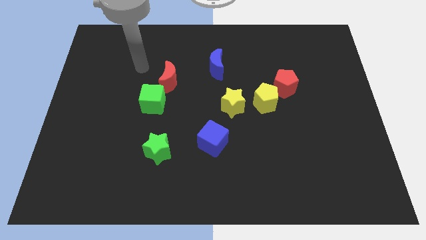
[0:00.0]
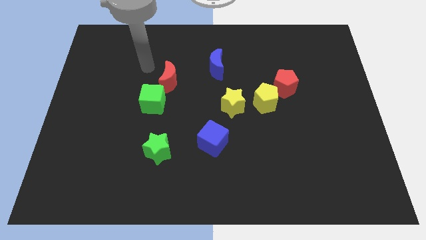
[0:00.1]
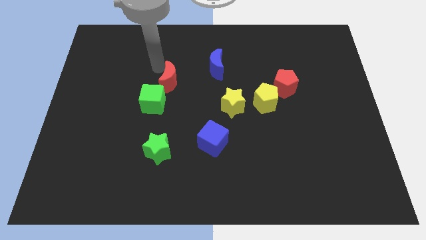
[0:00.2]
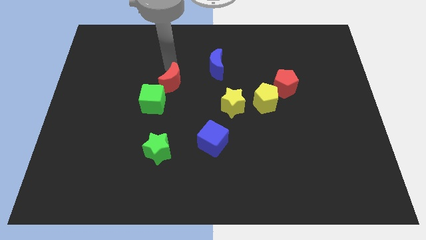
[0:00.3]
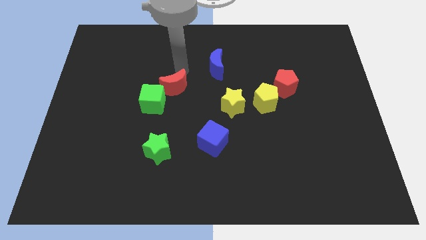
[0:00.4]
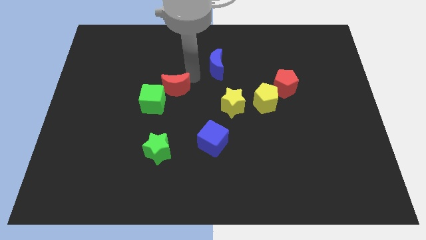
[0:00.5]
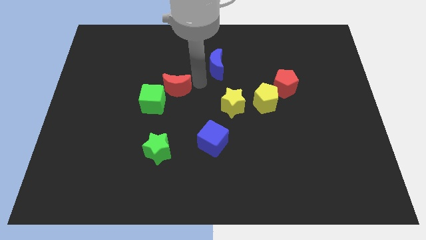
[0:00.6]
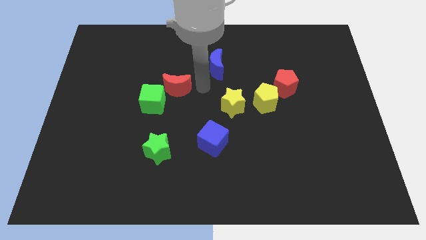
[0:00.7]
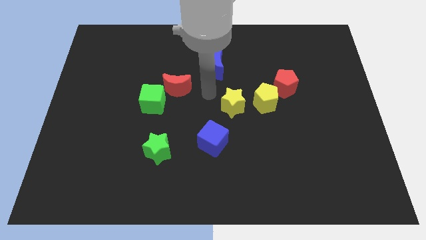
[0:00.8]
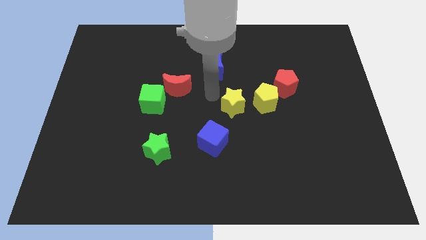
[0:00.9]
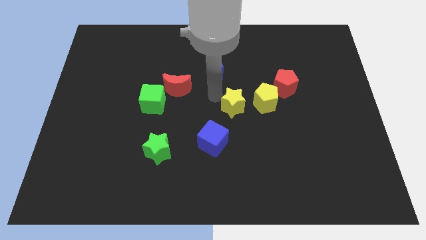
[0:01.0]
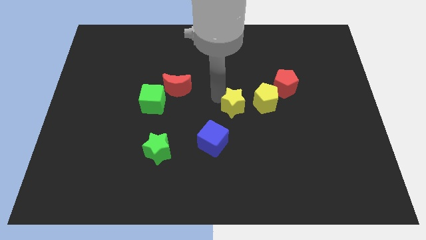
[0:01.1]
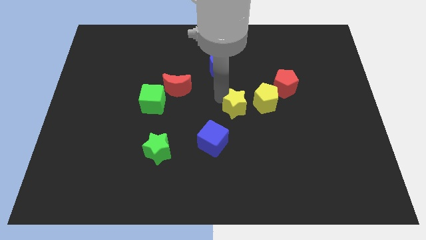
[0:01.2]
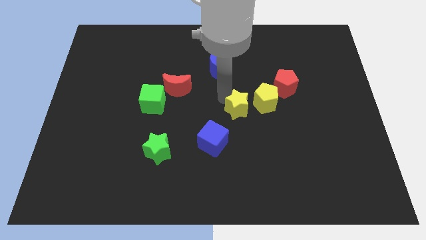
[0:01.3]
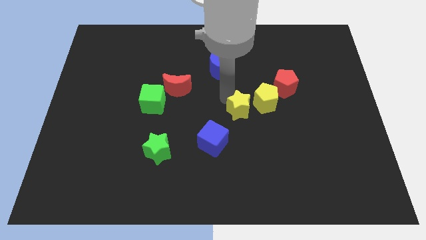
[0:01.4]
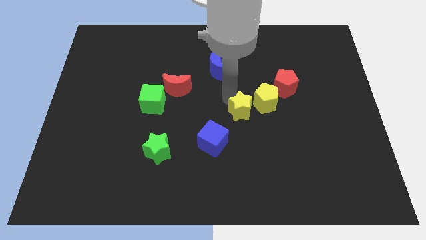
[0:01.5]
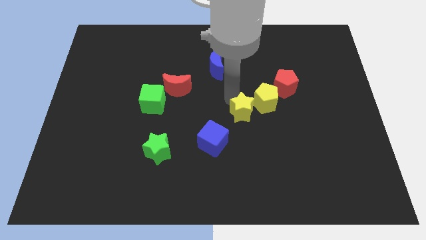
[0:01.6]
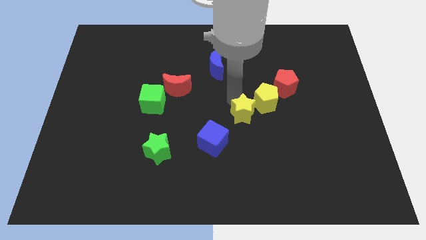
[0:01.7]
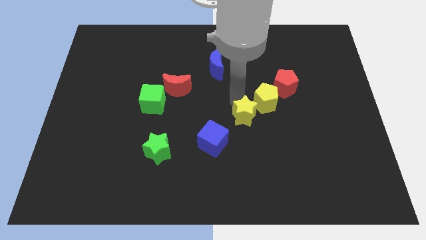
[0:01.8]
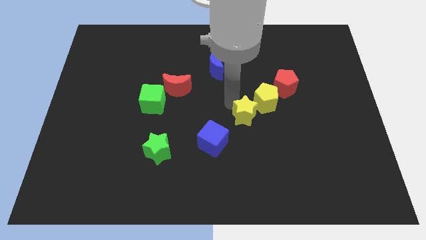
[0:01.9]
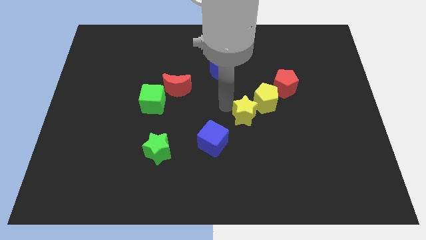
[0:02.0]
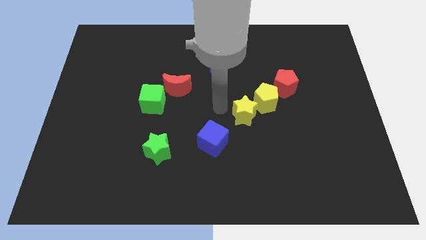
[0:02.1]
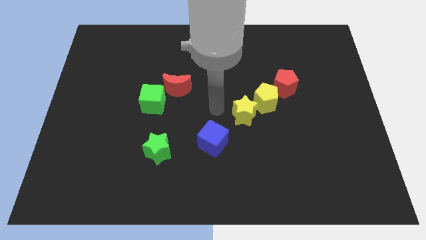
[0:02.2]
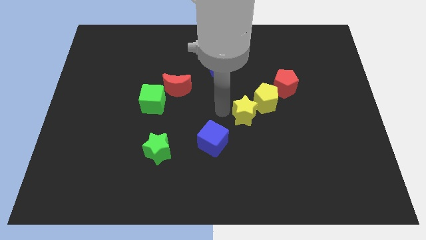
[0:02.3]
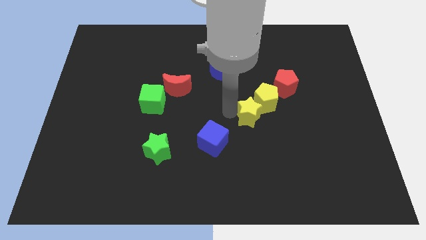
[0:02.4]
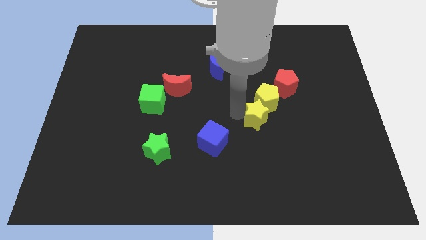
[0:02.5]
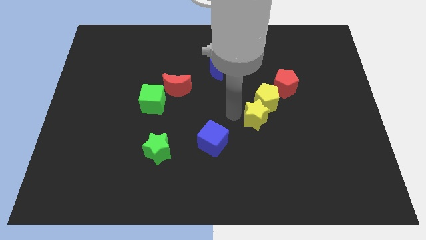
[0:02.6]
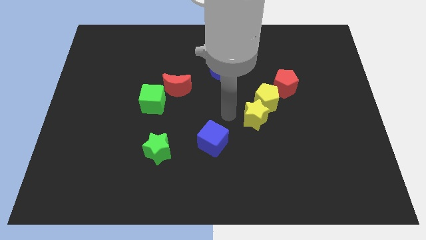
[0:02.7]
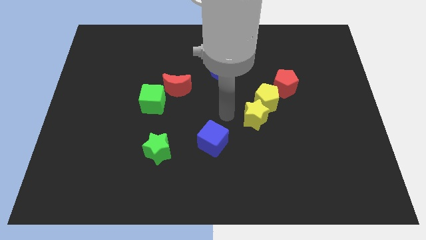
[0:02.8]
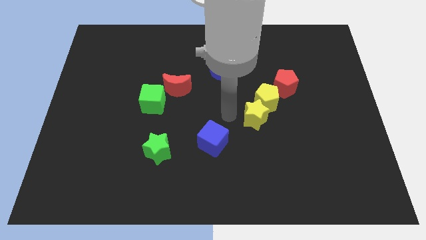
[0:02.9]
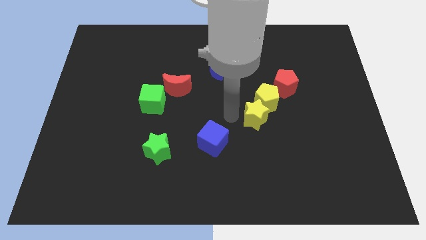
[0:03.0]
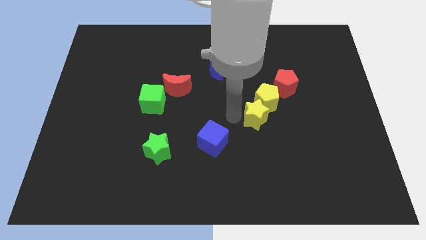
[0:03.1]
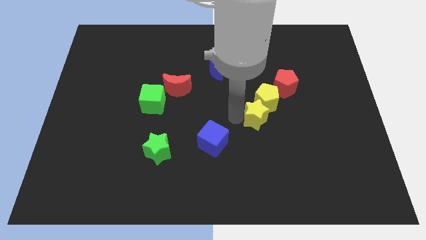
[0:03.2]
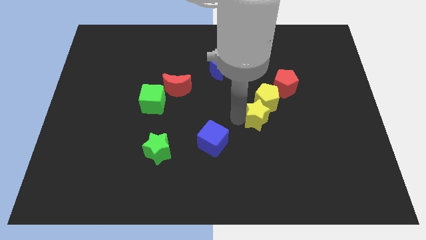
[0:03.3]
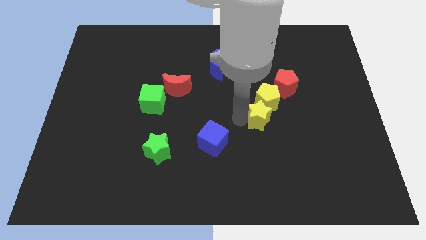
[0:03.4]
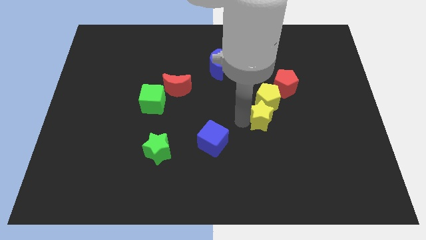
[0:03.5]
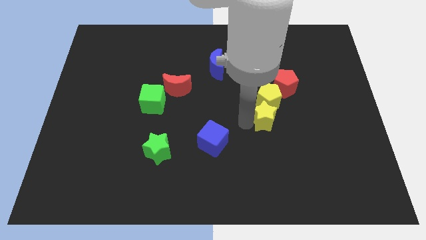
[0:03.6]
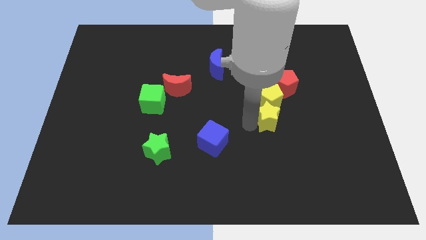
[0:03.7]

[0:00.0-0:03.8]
slightly push the yellow star right

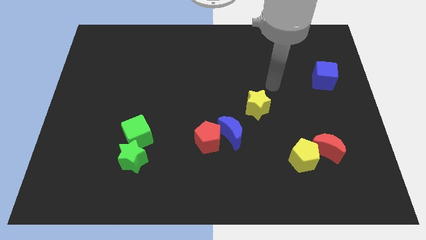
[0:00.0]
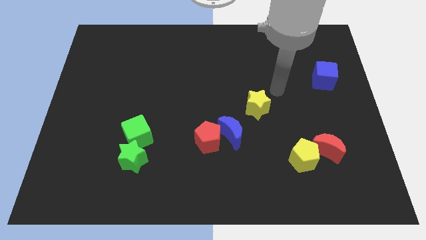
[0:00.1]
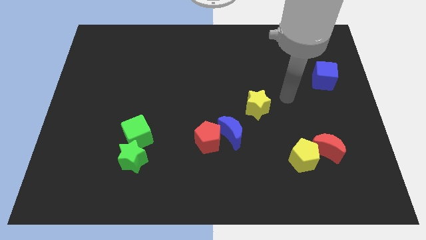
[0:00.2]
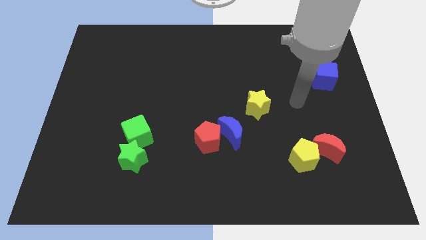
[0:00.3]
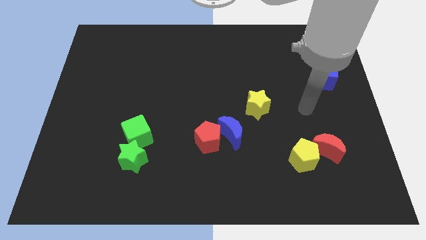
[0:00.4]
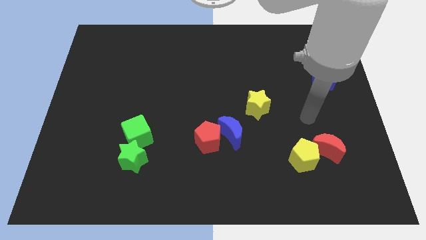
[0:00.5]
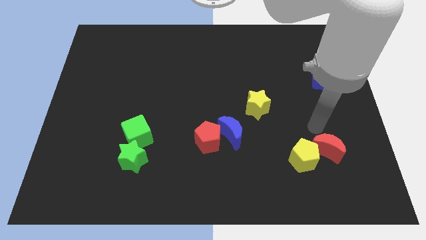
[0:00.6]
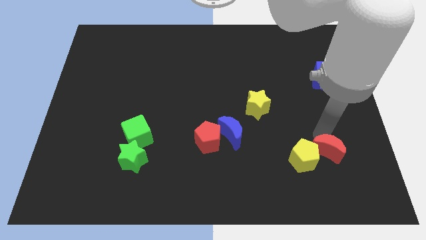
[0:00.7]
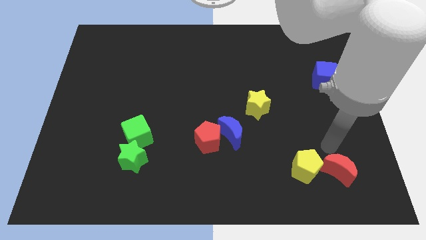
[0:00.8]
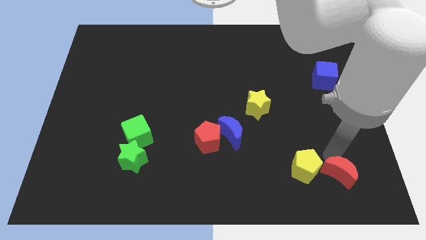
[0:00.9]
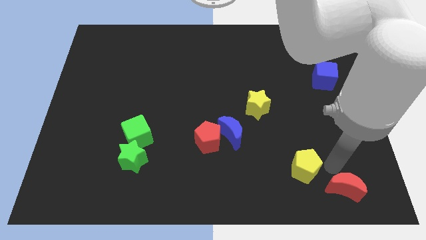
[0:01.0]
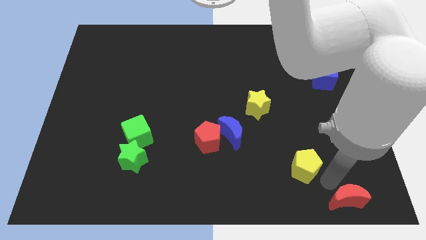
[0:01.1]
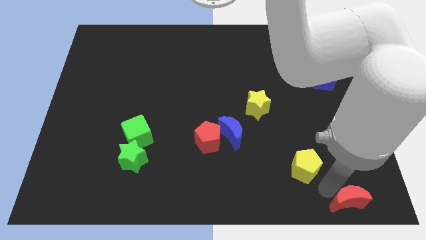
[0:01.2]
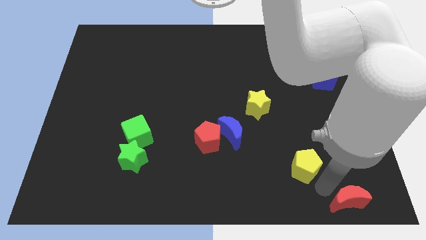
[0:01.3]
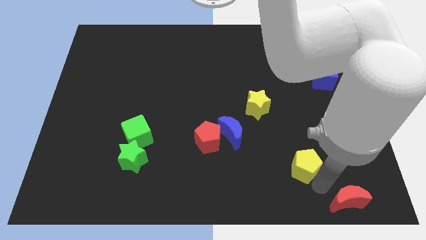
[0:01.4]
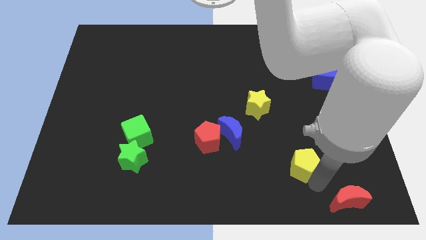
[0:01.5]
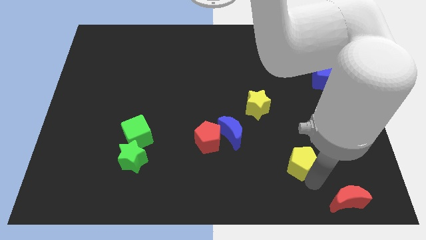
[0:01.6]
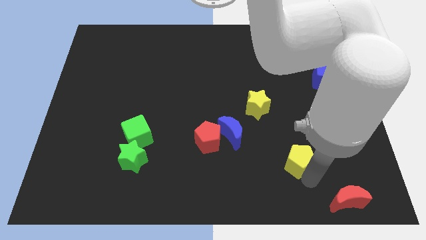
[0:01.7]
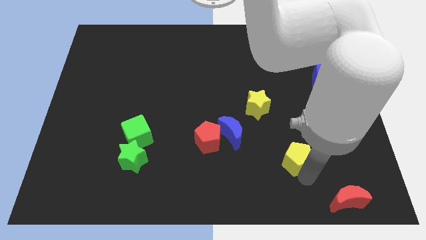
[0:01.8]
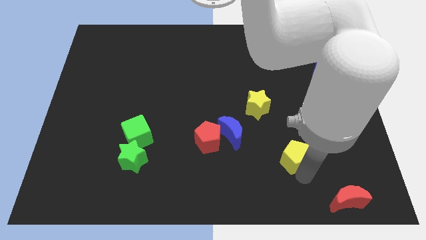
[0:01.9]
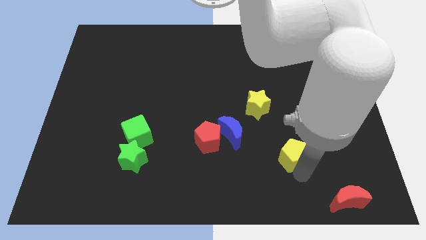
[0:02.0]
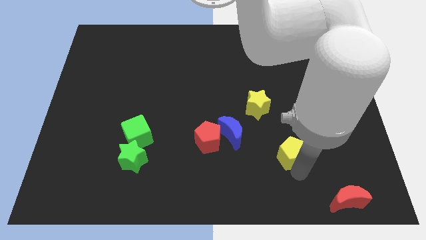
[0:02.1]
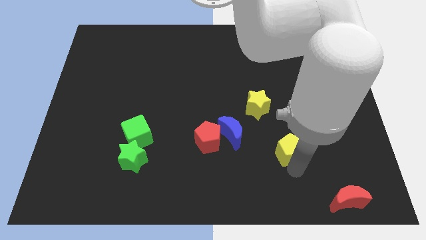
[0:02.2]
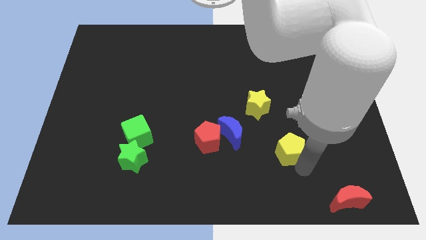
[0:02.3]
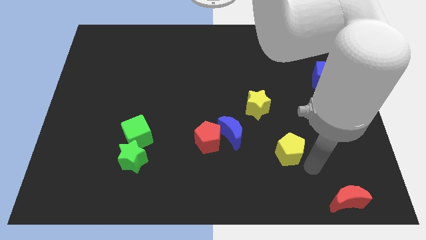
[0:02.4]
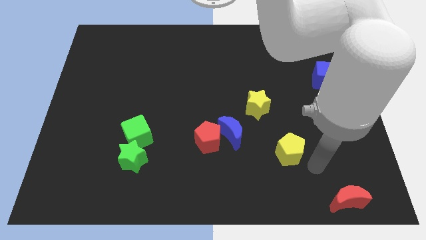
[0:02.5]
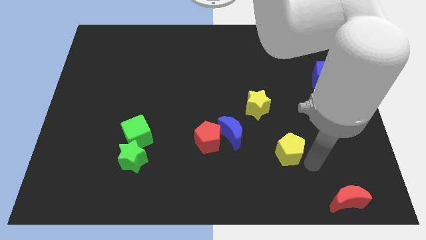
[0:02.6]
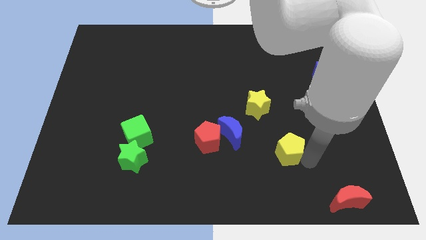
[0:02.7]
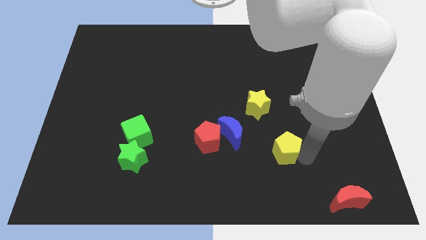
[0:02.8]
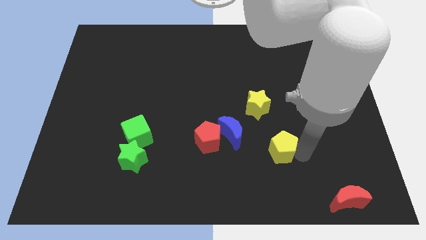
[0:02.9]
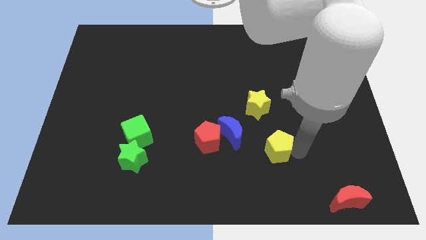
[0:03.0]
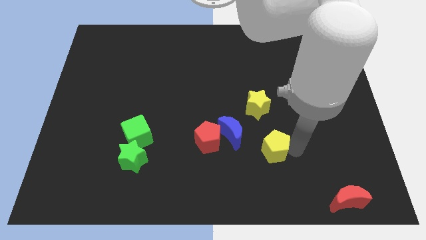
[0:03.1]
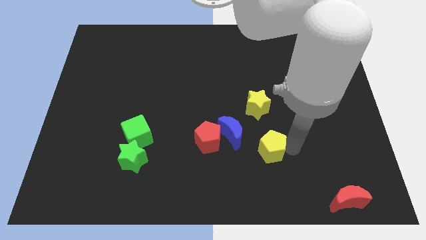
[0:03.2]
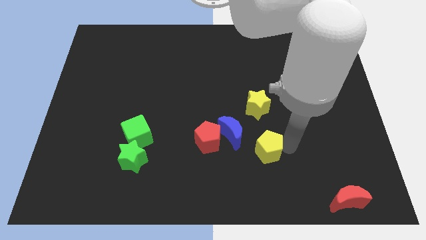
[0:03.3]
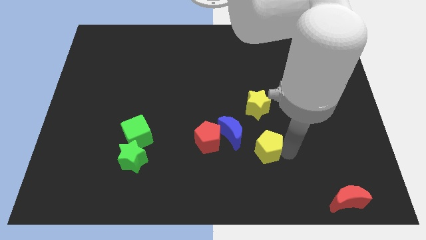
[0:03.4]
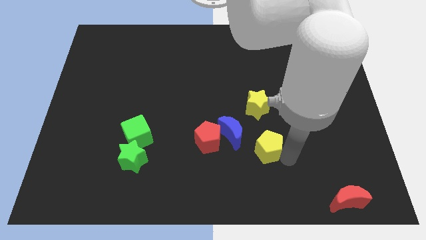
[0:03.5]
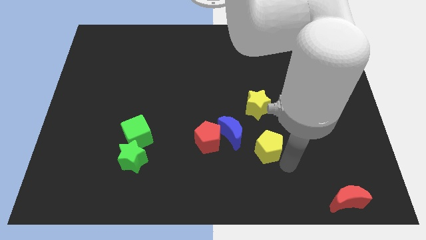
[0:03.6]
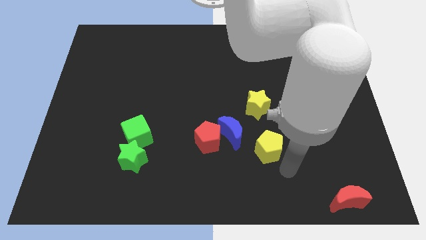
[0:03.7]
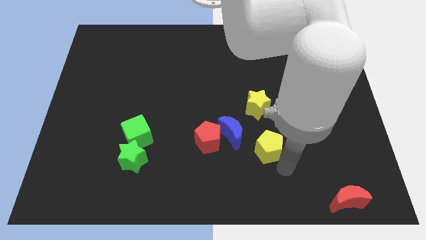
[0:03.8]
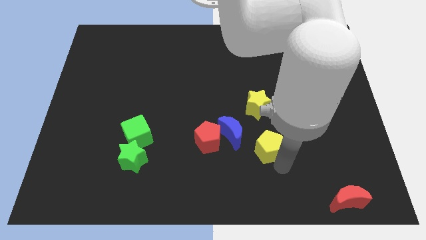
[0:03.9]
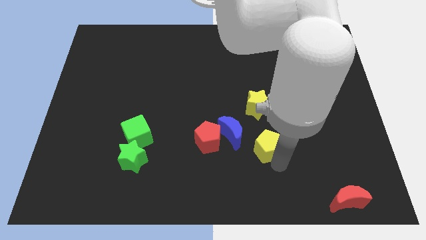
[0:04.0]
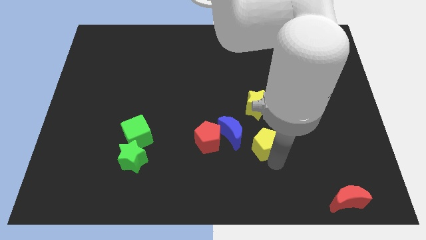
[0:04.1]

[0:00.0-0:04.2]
move the yellow pentagon a bit up and to the left
